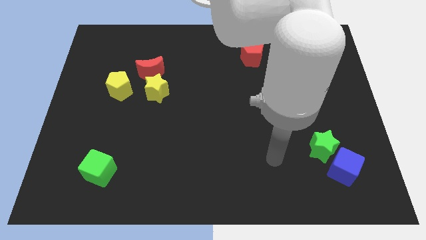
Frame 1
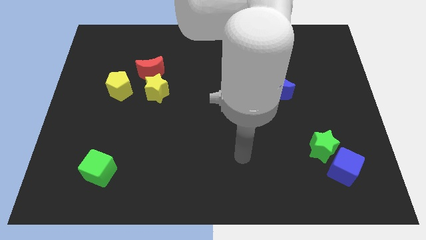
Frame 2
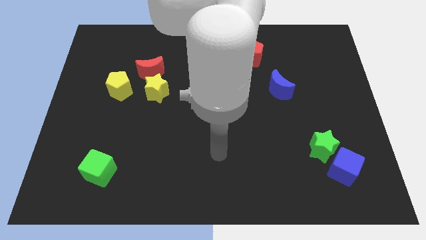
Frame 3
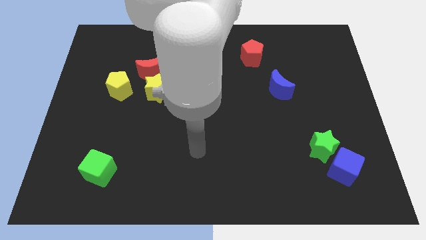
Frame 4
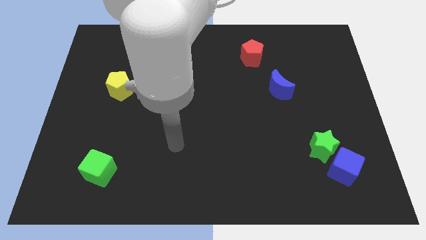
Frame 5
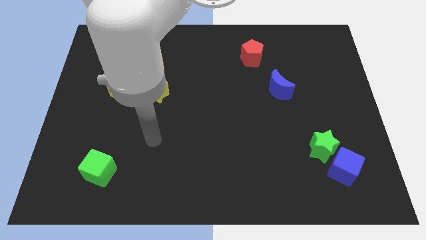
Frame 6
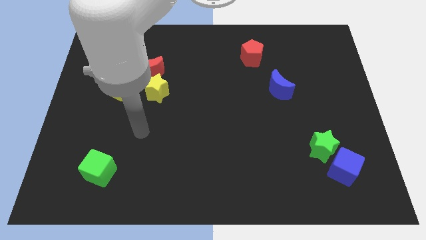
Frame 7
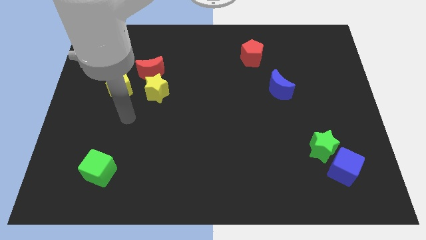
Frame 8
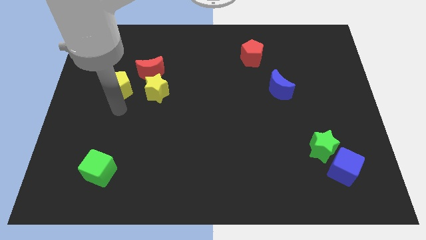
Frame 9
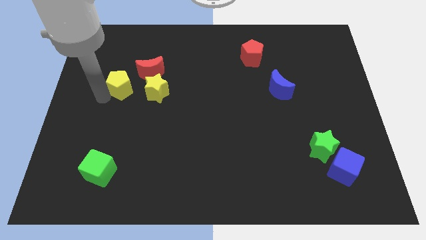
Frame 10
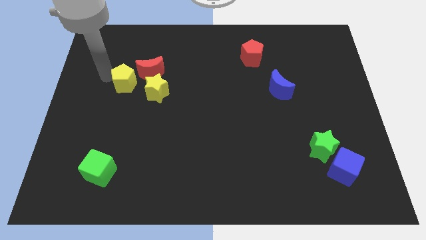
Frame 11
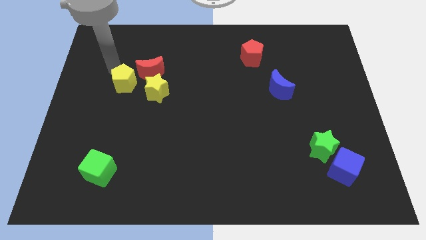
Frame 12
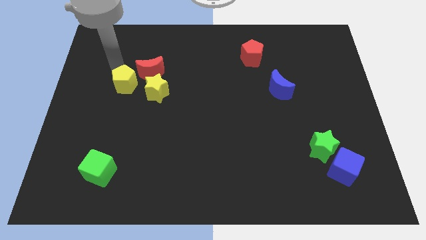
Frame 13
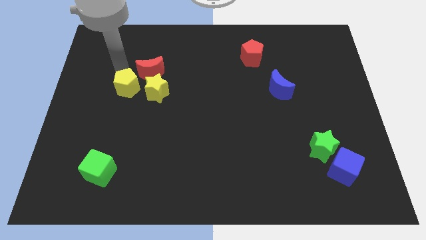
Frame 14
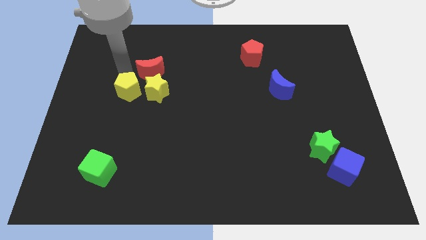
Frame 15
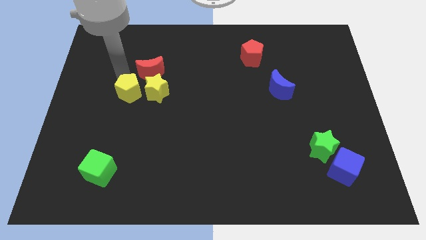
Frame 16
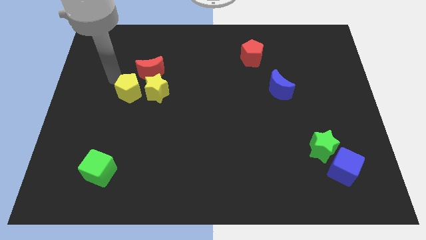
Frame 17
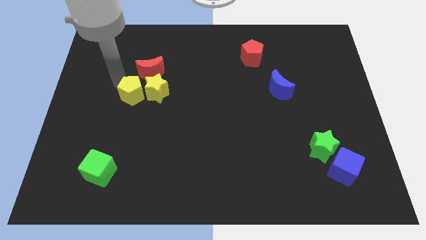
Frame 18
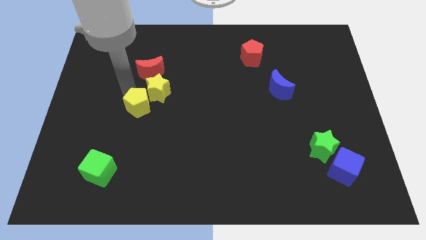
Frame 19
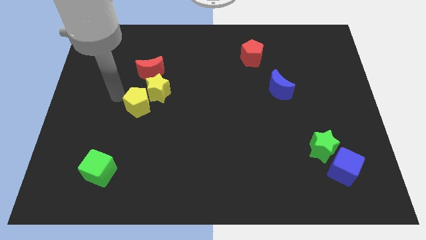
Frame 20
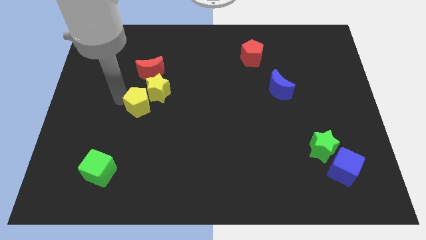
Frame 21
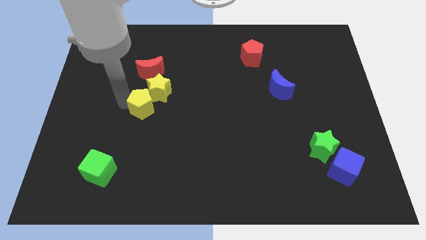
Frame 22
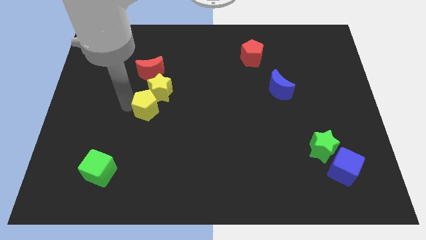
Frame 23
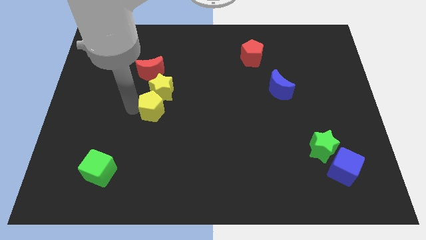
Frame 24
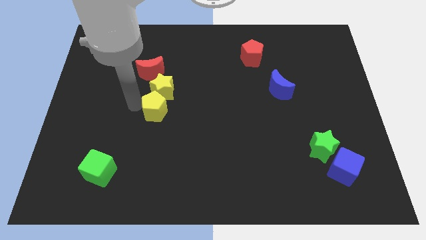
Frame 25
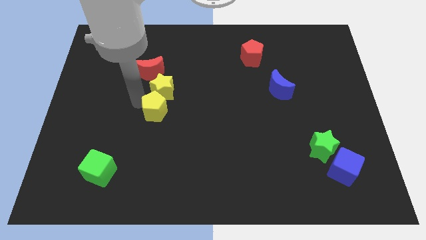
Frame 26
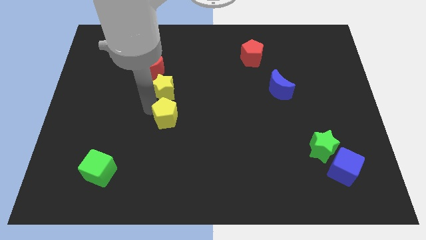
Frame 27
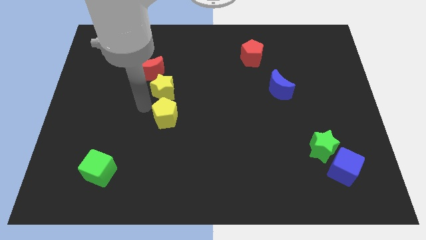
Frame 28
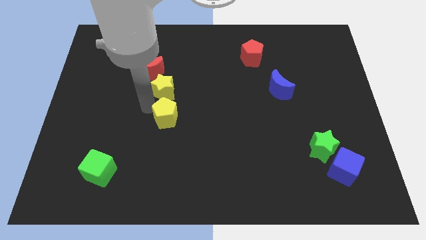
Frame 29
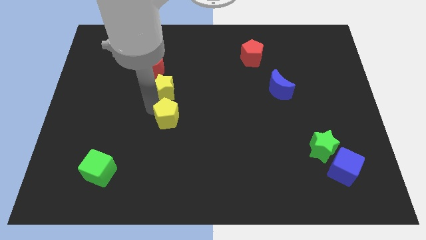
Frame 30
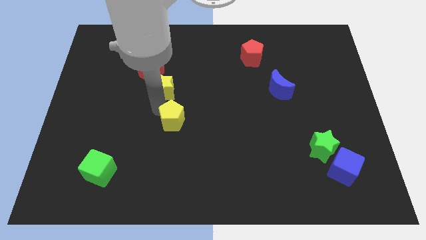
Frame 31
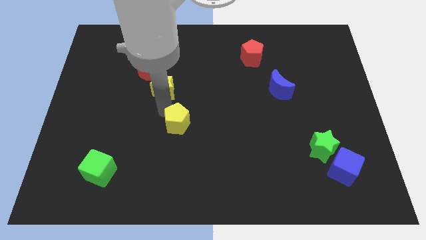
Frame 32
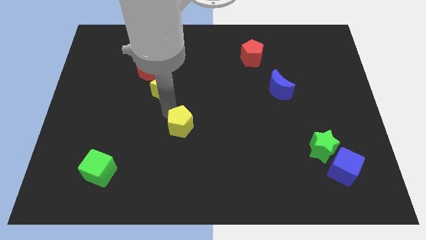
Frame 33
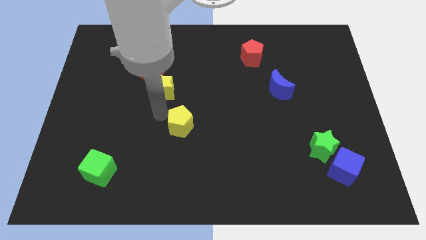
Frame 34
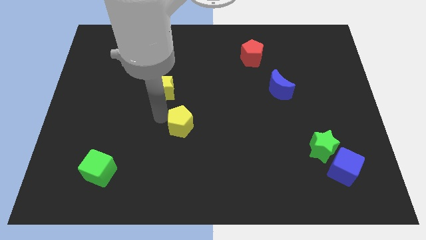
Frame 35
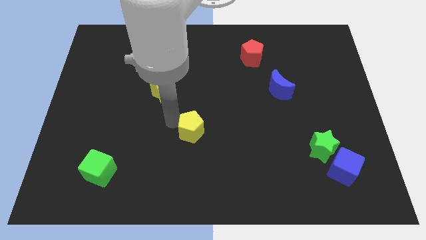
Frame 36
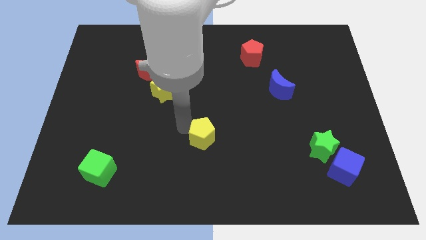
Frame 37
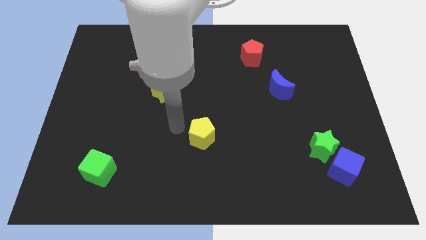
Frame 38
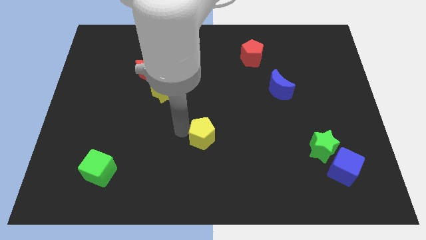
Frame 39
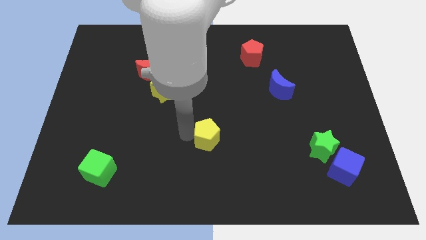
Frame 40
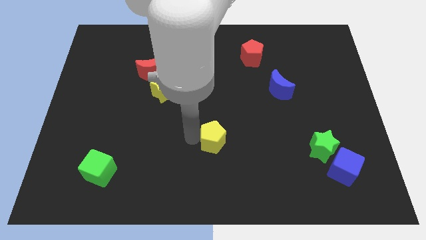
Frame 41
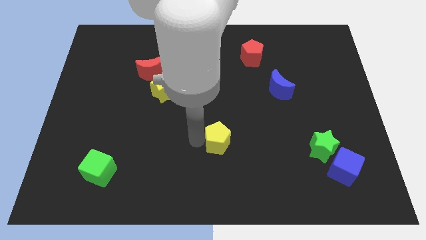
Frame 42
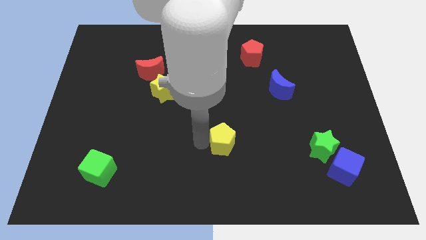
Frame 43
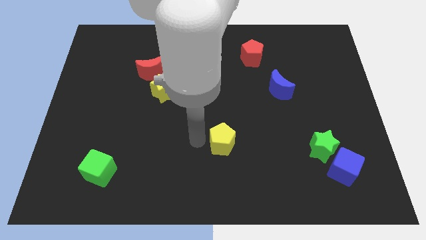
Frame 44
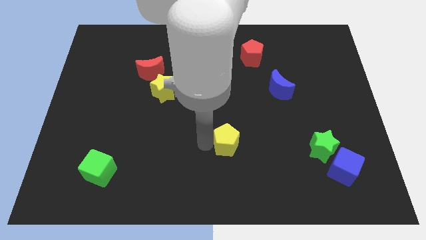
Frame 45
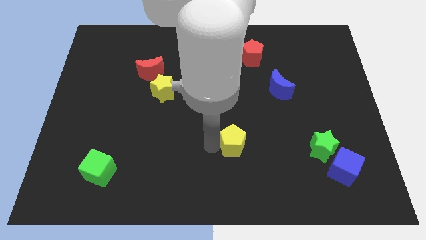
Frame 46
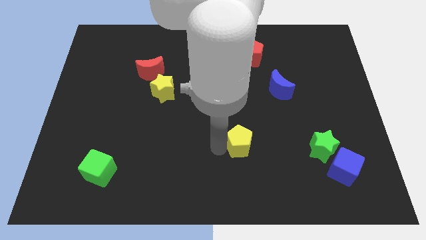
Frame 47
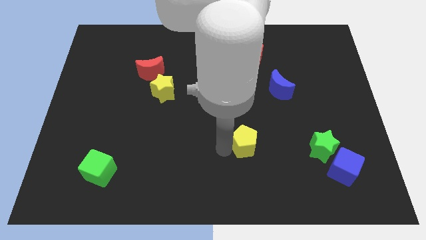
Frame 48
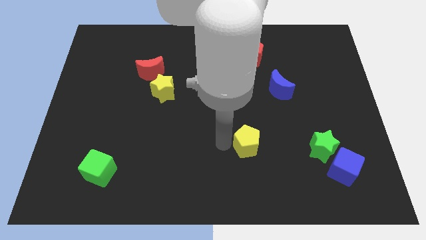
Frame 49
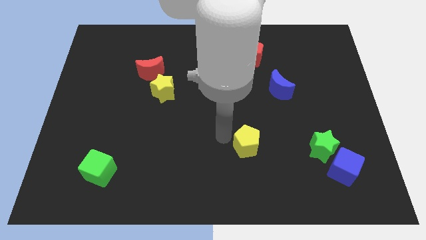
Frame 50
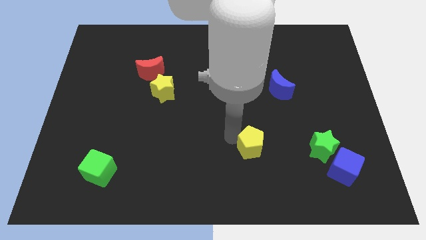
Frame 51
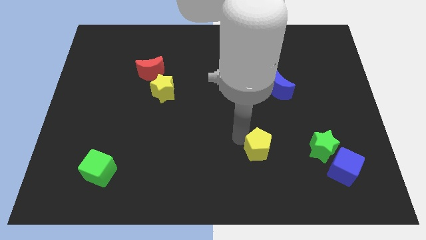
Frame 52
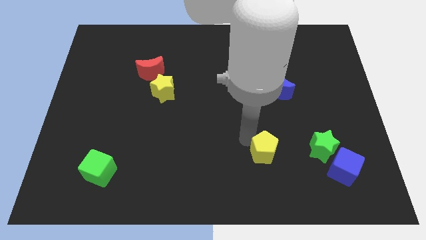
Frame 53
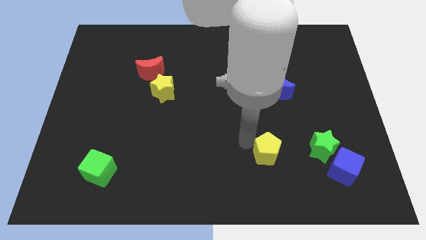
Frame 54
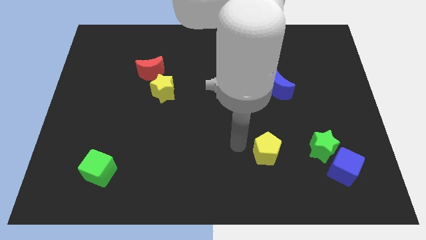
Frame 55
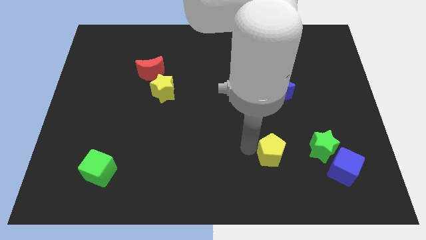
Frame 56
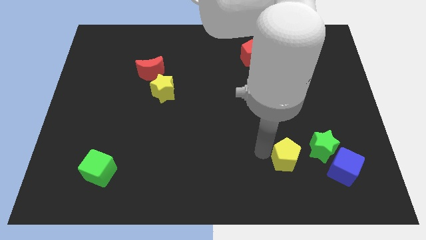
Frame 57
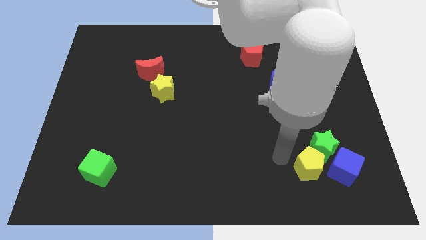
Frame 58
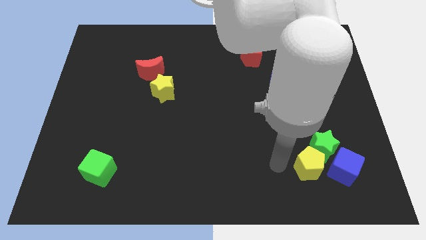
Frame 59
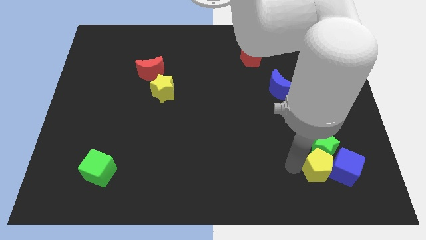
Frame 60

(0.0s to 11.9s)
put the yellow pentagon to the blue cube
